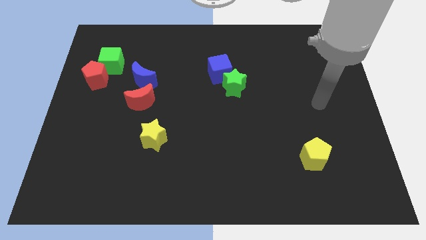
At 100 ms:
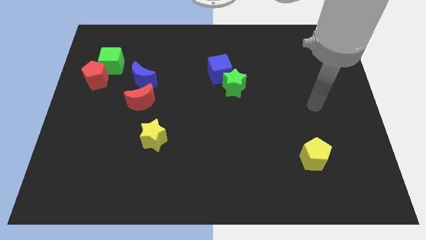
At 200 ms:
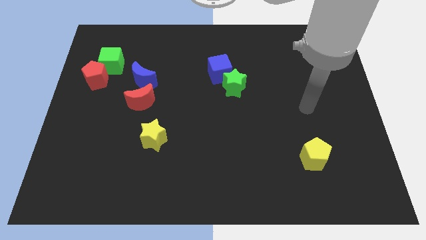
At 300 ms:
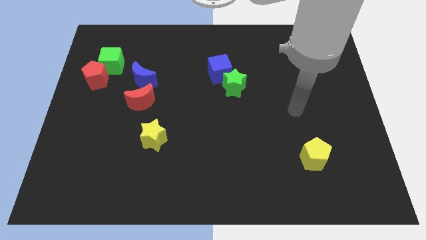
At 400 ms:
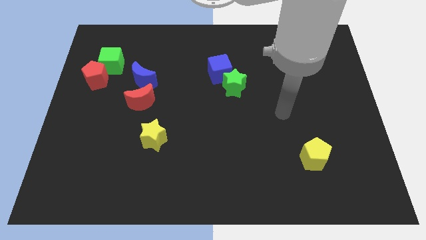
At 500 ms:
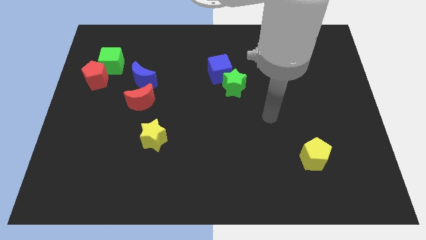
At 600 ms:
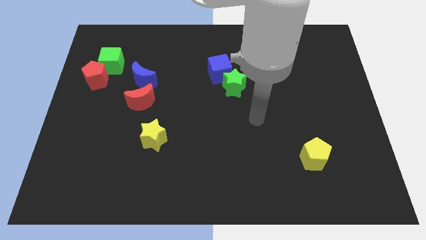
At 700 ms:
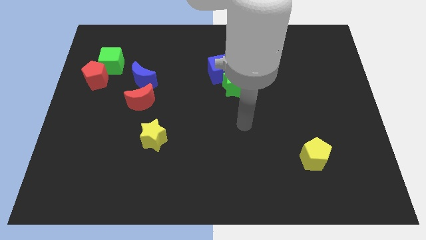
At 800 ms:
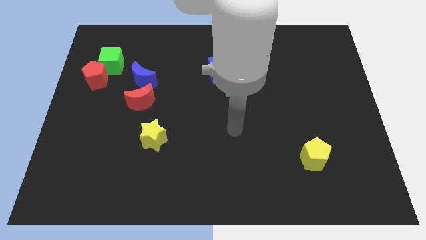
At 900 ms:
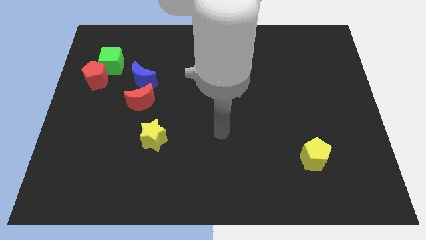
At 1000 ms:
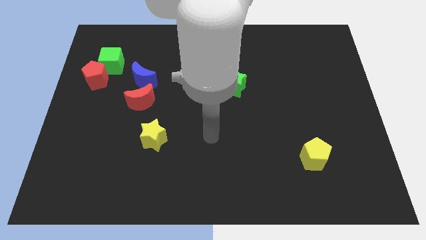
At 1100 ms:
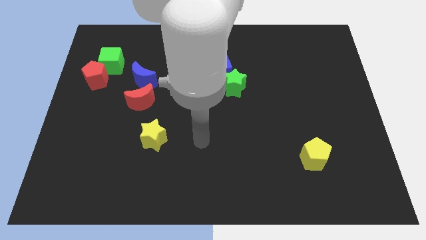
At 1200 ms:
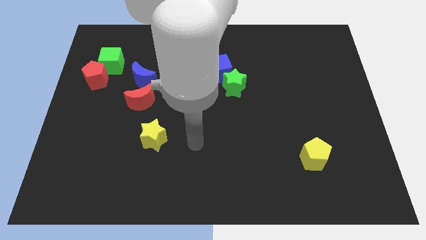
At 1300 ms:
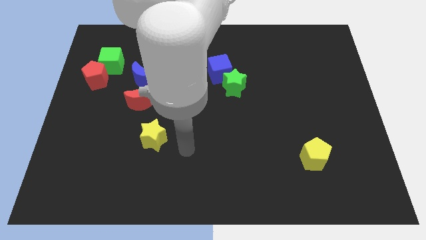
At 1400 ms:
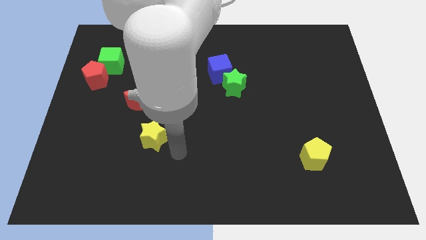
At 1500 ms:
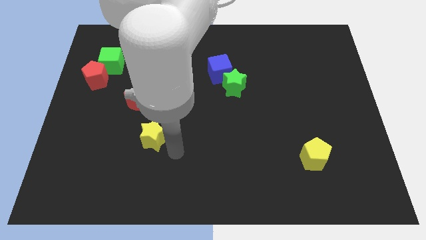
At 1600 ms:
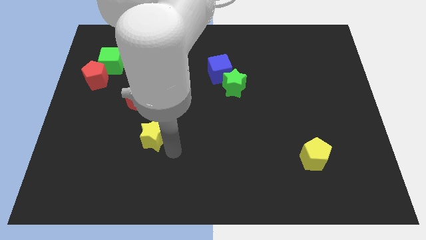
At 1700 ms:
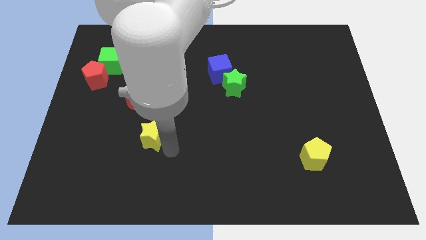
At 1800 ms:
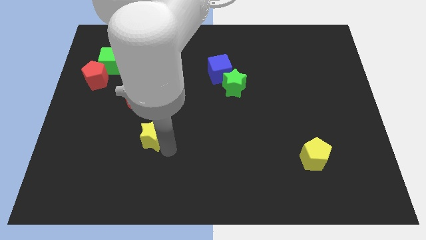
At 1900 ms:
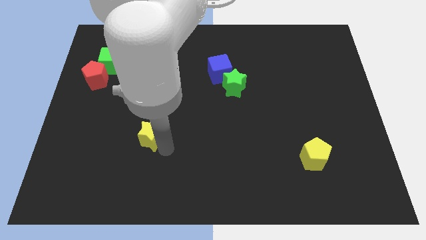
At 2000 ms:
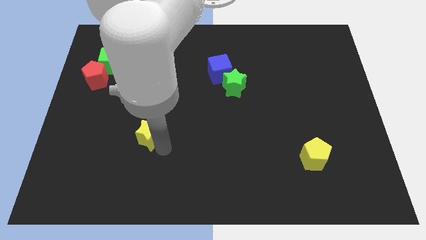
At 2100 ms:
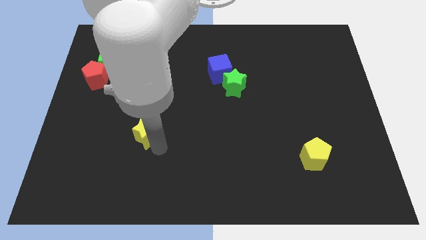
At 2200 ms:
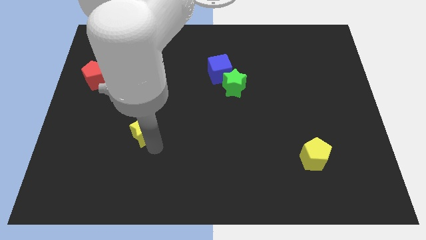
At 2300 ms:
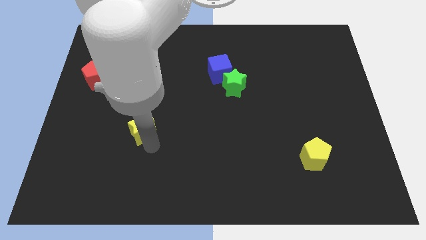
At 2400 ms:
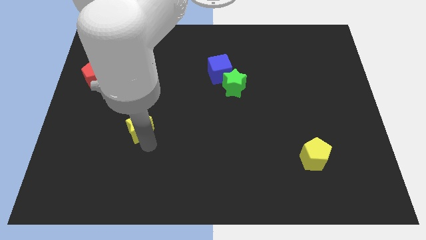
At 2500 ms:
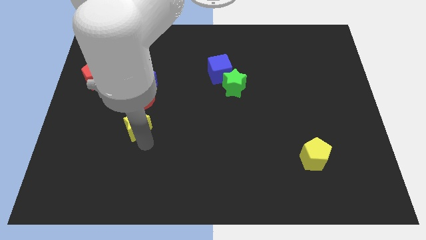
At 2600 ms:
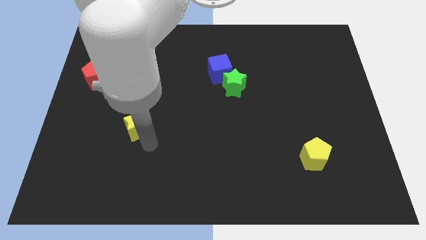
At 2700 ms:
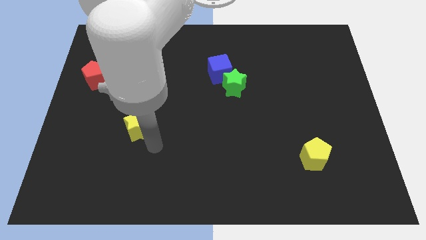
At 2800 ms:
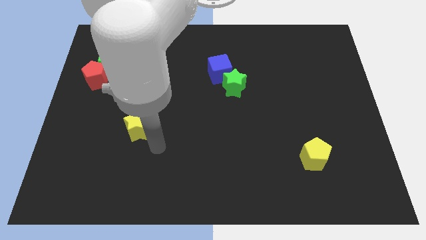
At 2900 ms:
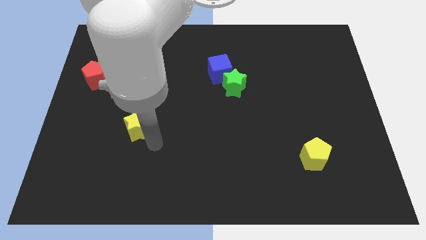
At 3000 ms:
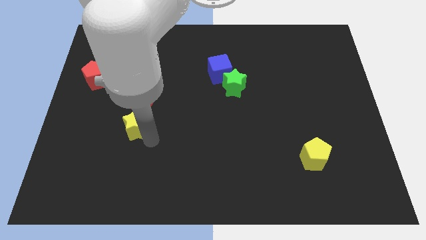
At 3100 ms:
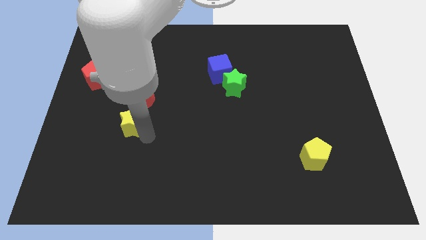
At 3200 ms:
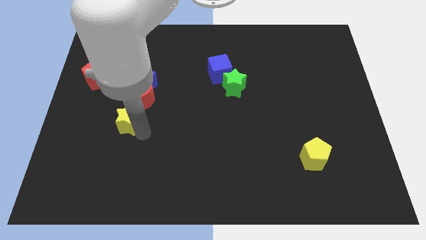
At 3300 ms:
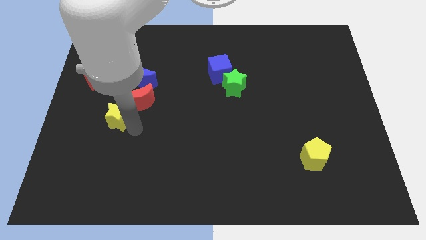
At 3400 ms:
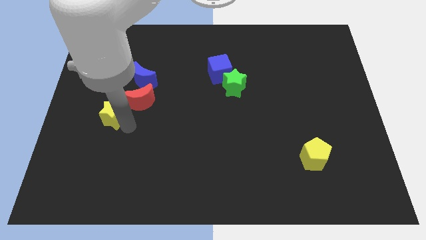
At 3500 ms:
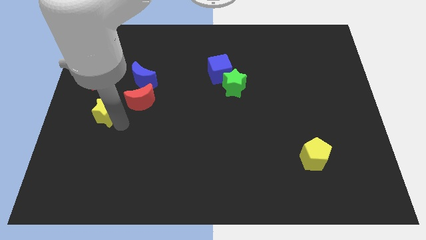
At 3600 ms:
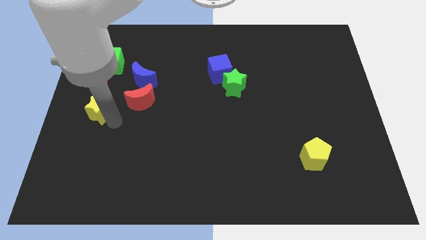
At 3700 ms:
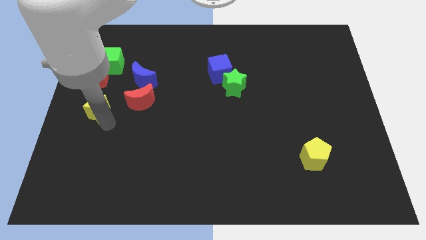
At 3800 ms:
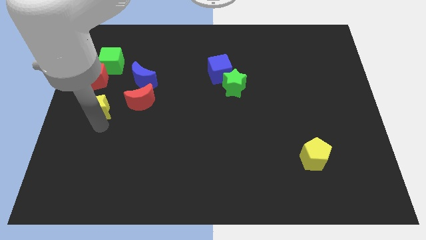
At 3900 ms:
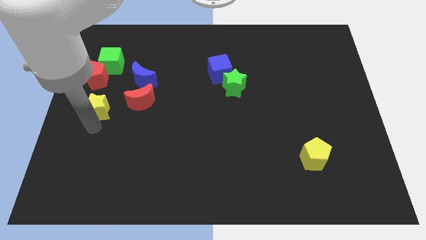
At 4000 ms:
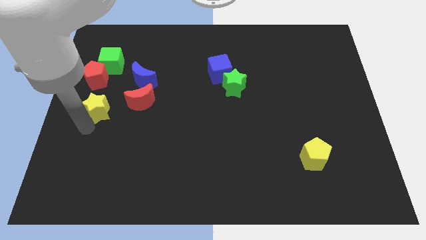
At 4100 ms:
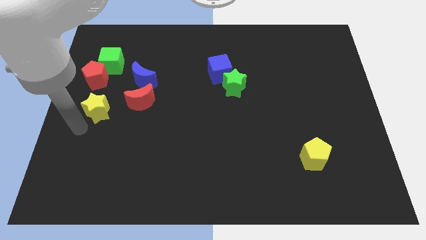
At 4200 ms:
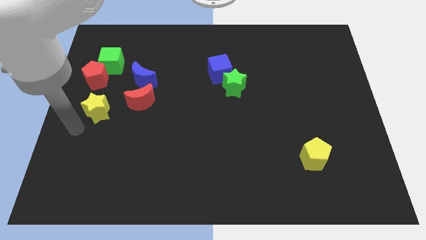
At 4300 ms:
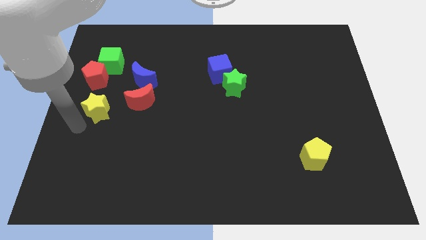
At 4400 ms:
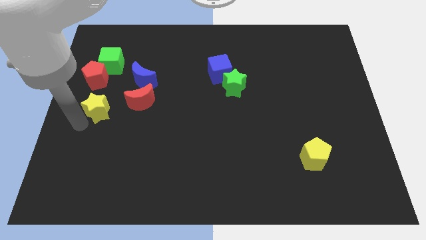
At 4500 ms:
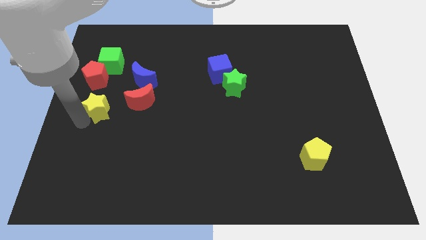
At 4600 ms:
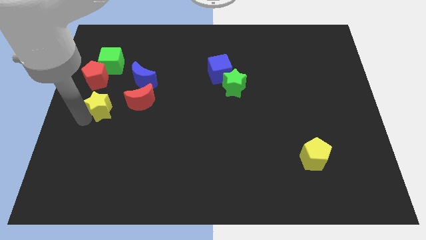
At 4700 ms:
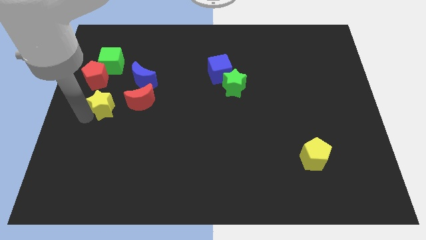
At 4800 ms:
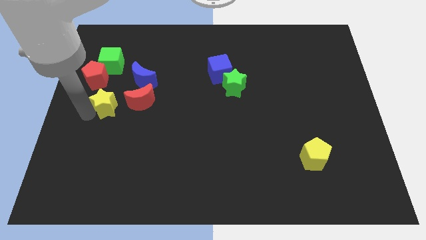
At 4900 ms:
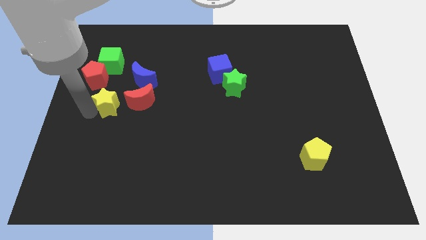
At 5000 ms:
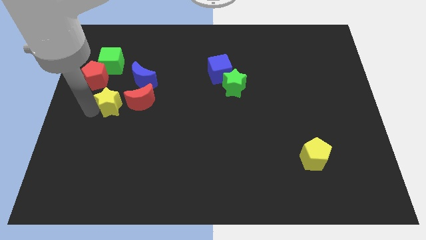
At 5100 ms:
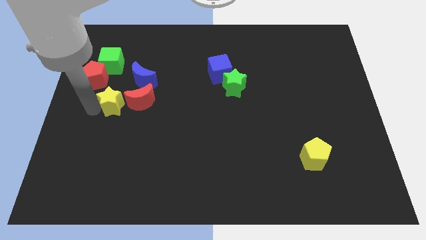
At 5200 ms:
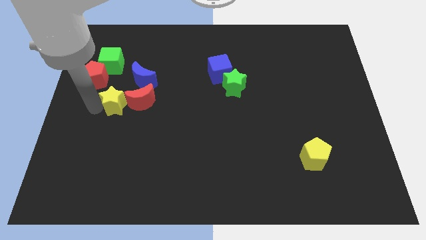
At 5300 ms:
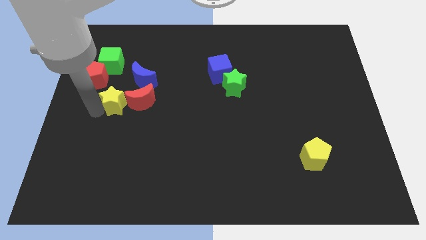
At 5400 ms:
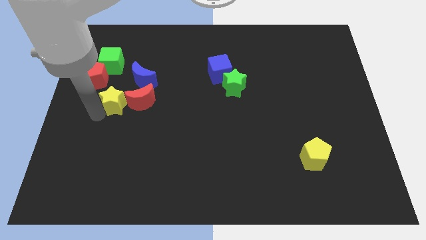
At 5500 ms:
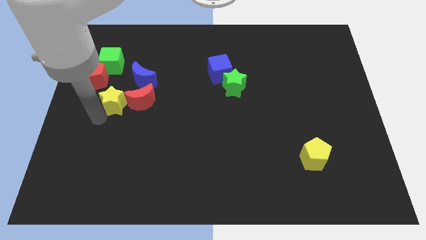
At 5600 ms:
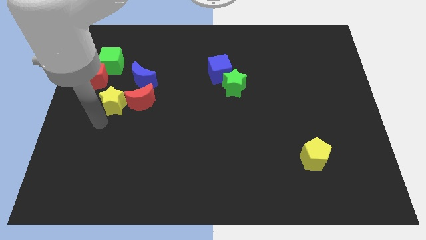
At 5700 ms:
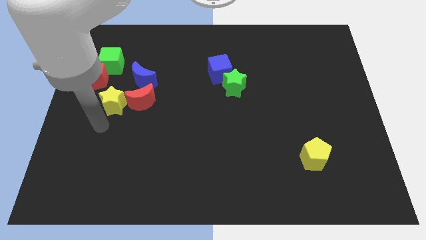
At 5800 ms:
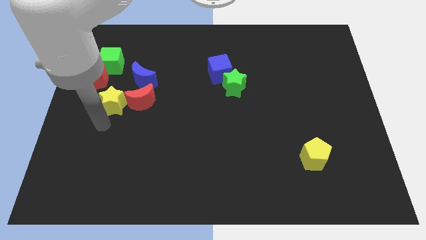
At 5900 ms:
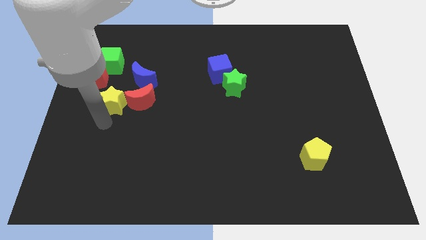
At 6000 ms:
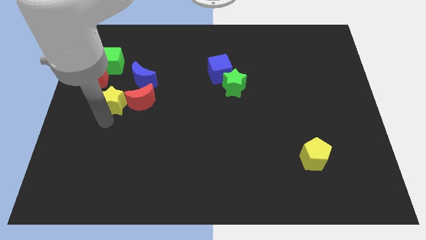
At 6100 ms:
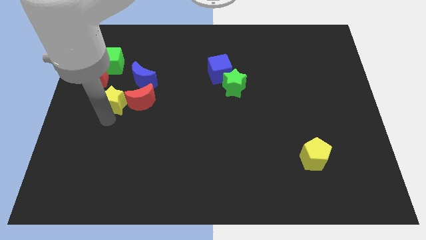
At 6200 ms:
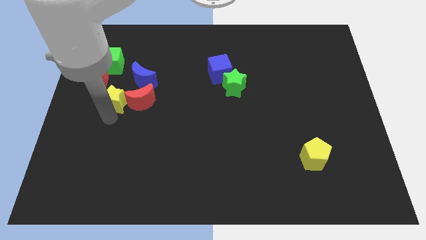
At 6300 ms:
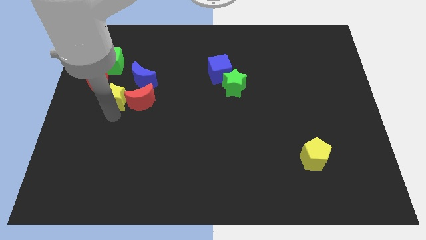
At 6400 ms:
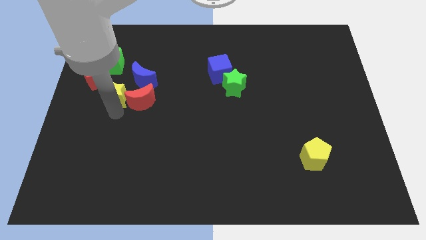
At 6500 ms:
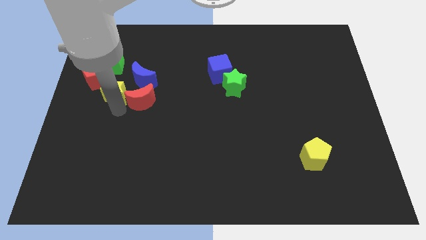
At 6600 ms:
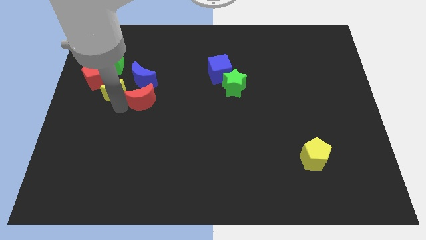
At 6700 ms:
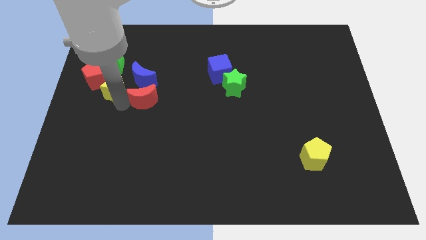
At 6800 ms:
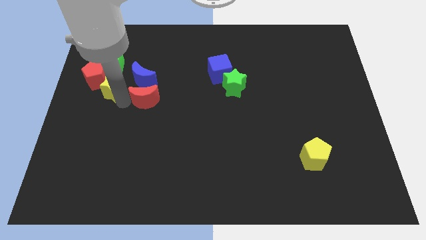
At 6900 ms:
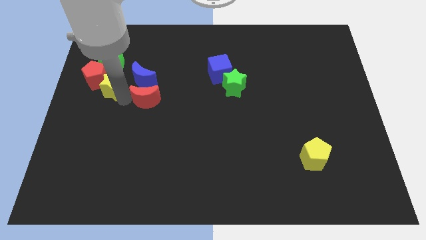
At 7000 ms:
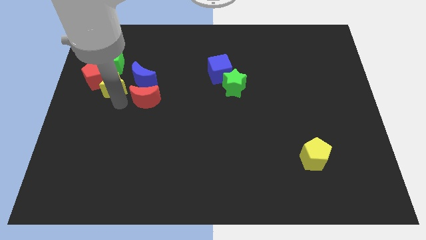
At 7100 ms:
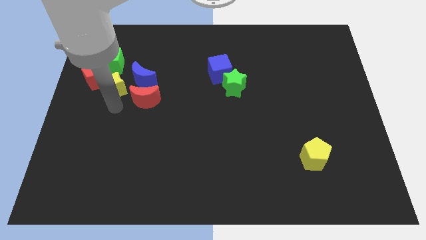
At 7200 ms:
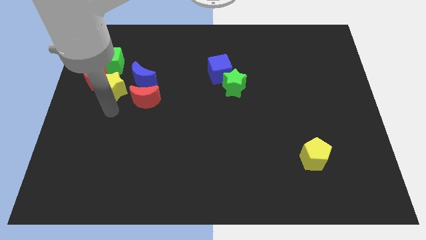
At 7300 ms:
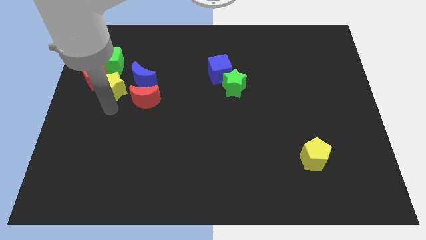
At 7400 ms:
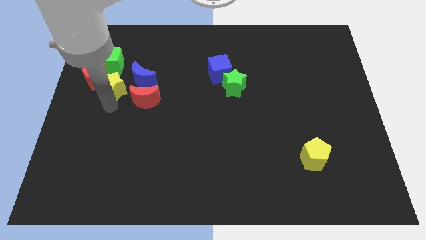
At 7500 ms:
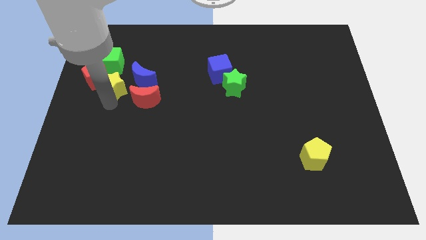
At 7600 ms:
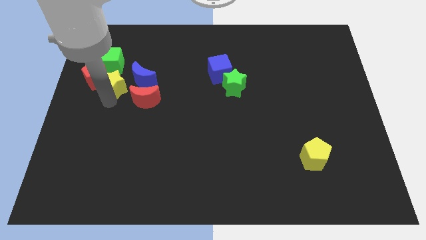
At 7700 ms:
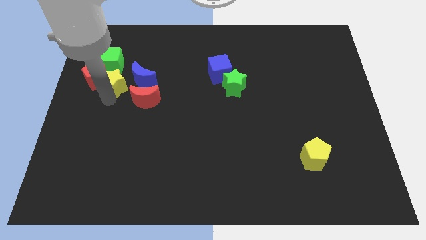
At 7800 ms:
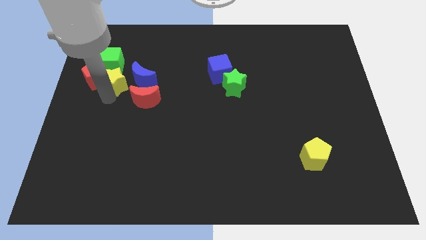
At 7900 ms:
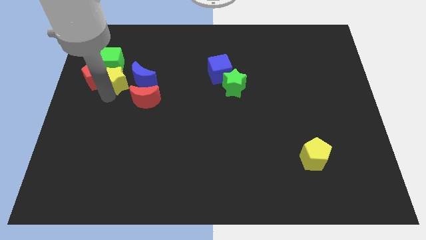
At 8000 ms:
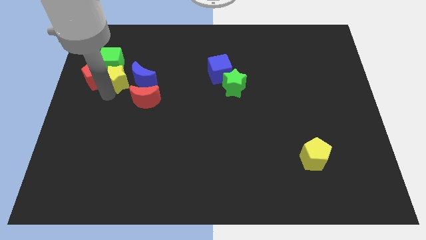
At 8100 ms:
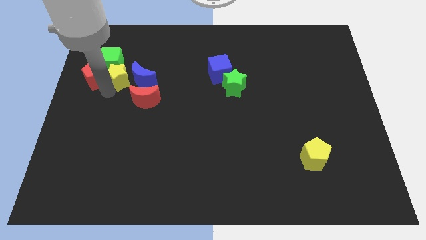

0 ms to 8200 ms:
move the yellow star to the green cube

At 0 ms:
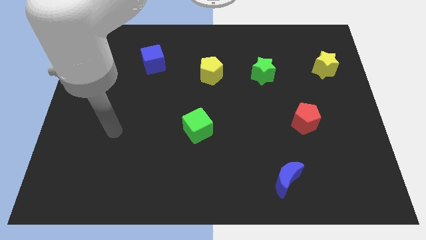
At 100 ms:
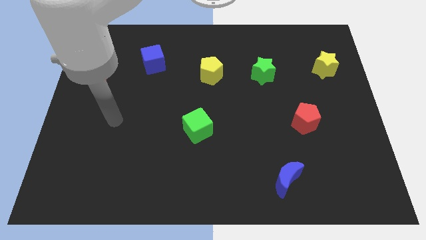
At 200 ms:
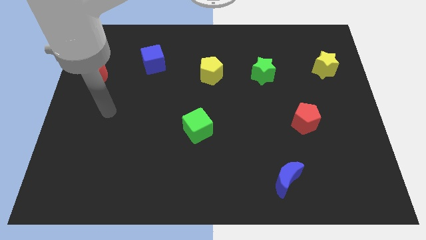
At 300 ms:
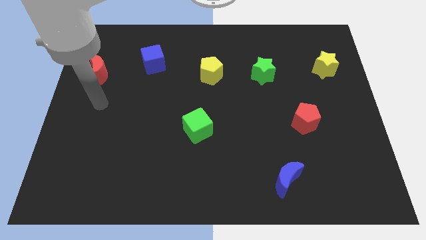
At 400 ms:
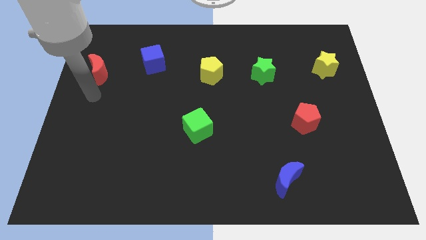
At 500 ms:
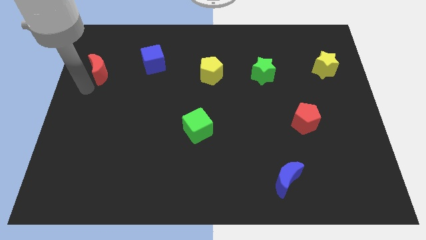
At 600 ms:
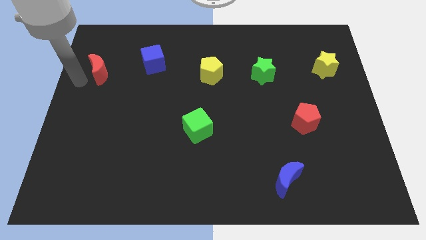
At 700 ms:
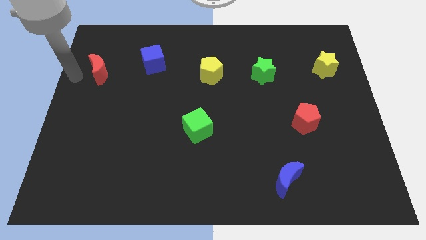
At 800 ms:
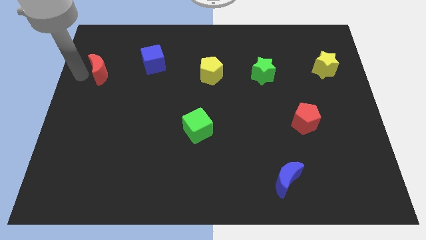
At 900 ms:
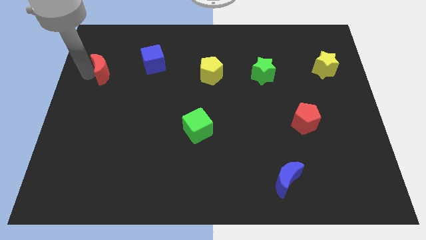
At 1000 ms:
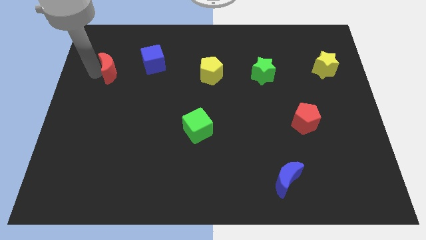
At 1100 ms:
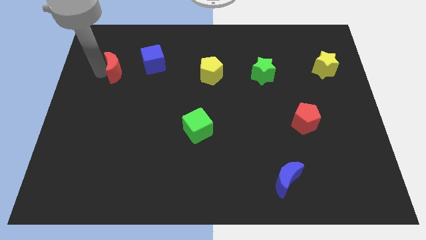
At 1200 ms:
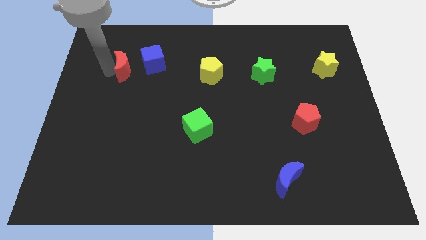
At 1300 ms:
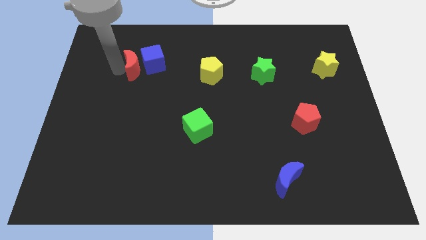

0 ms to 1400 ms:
slide the red moon to the blue cube
